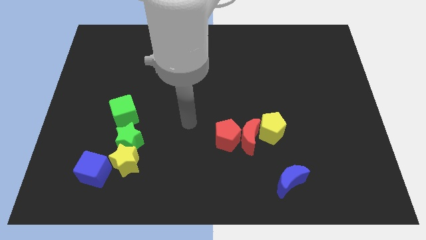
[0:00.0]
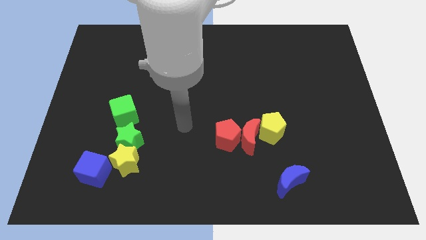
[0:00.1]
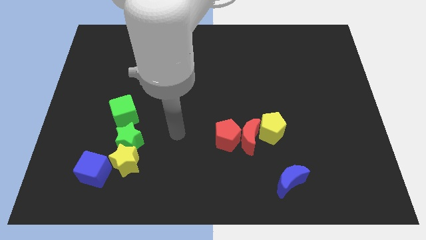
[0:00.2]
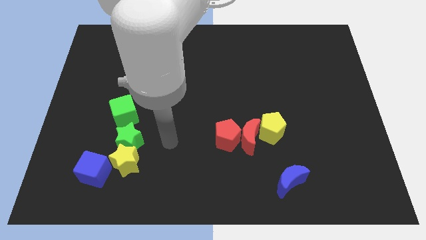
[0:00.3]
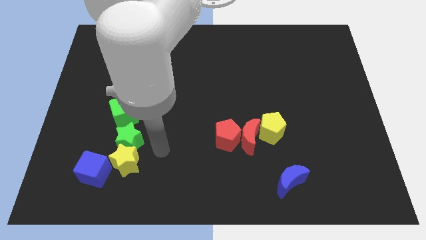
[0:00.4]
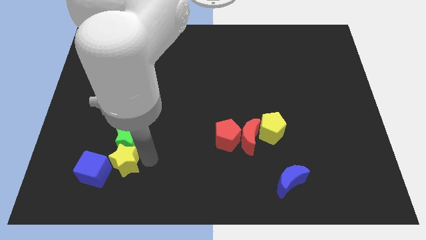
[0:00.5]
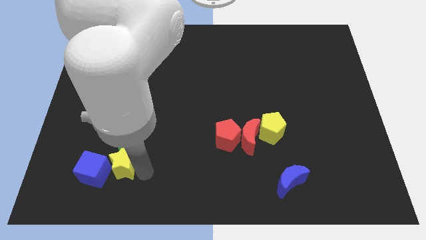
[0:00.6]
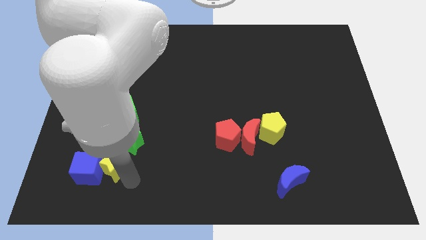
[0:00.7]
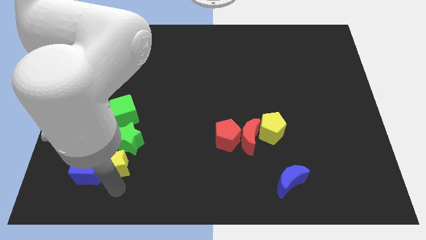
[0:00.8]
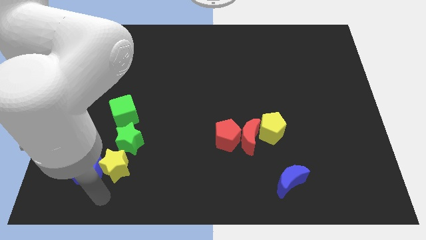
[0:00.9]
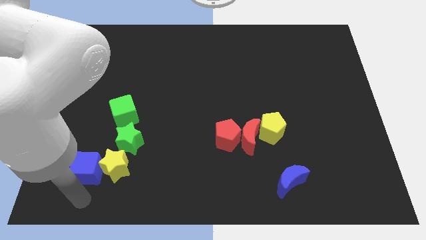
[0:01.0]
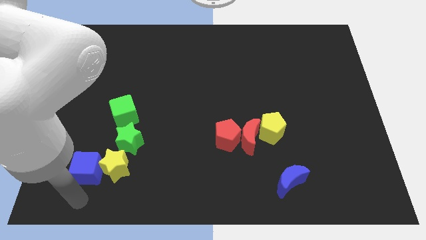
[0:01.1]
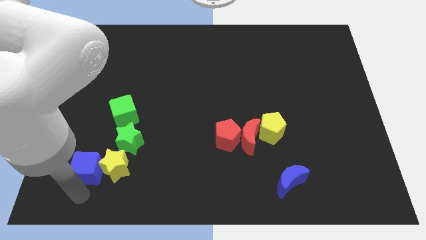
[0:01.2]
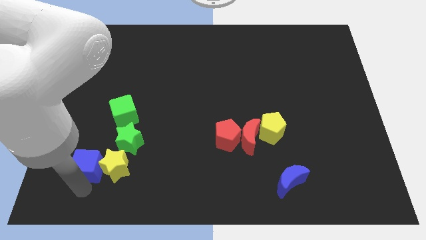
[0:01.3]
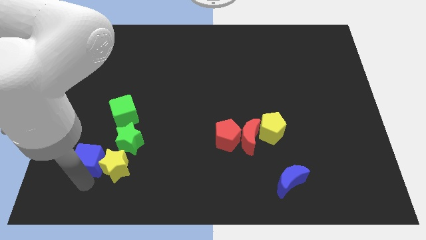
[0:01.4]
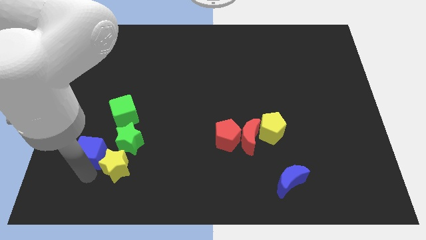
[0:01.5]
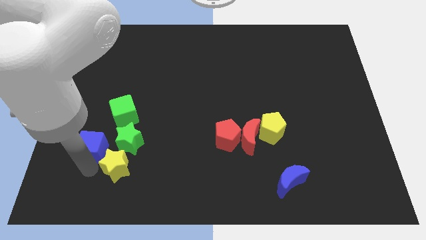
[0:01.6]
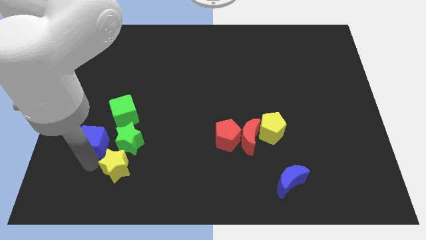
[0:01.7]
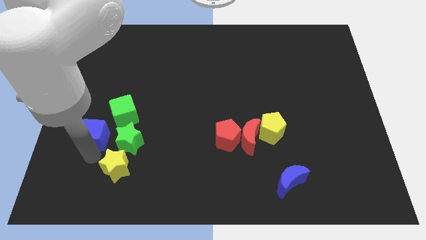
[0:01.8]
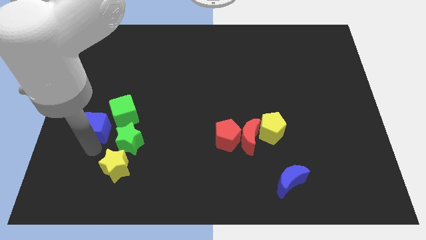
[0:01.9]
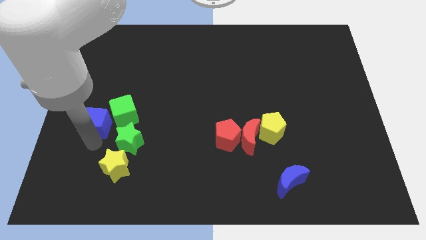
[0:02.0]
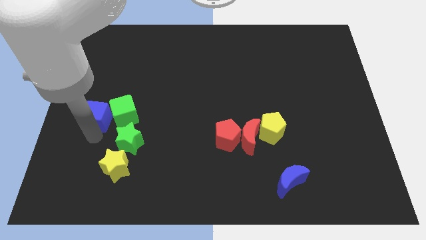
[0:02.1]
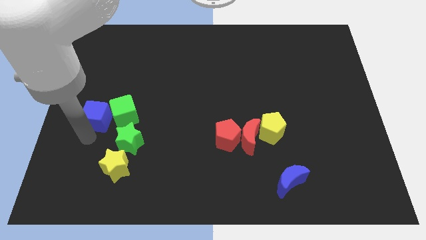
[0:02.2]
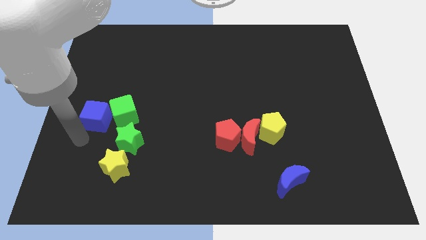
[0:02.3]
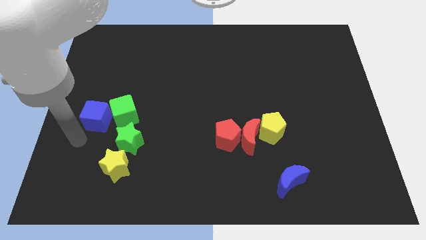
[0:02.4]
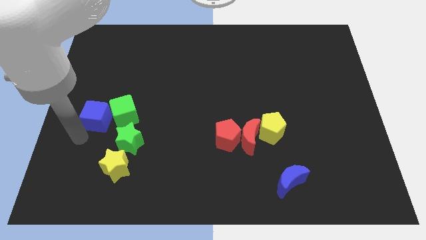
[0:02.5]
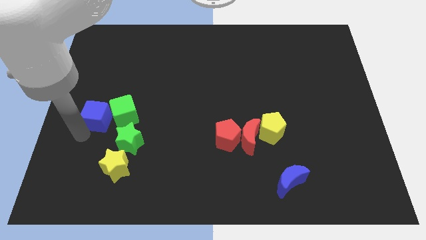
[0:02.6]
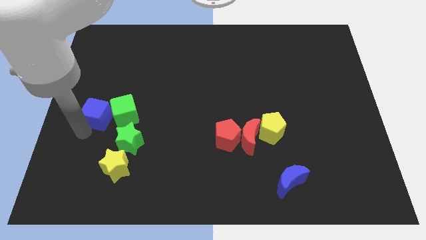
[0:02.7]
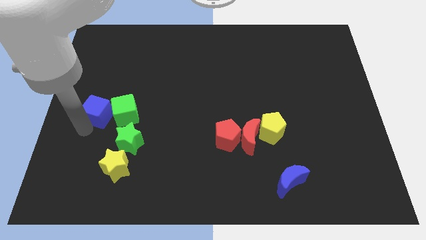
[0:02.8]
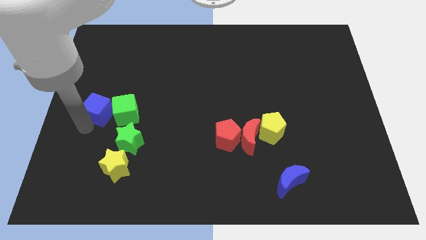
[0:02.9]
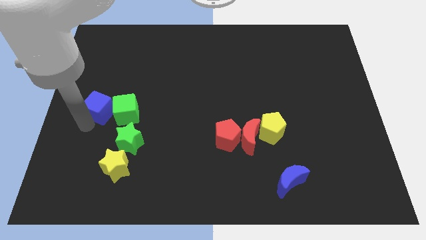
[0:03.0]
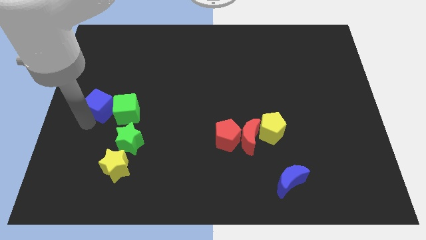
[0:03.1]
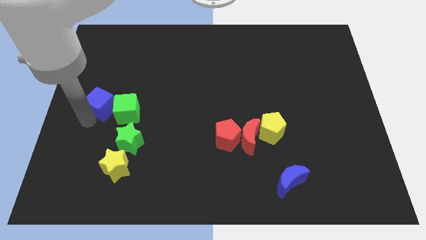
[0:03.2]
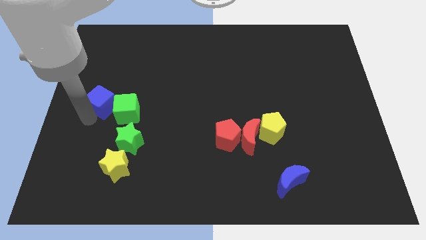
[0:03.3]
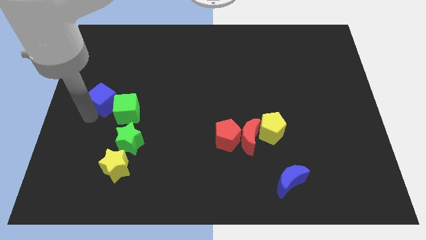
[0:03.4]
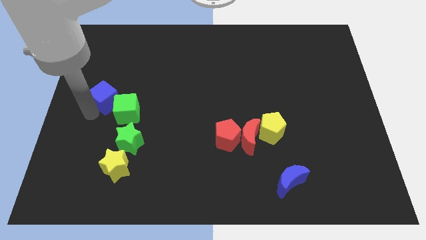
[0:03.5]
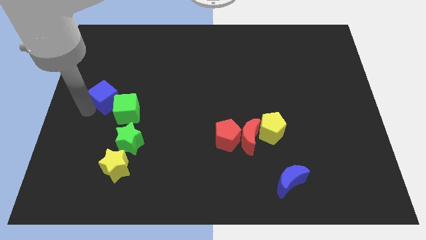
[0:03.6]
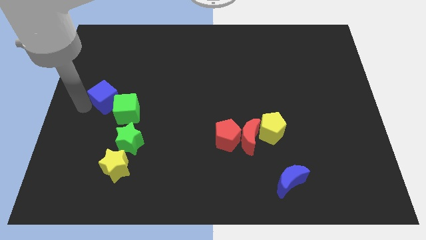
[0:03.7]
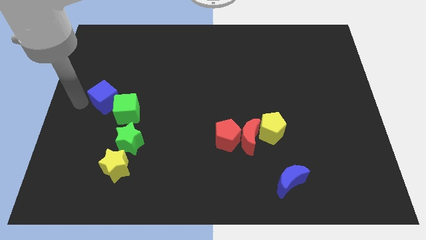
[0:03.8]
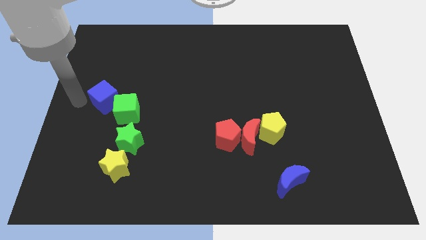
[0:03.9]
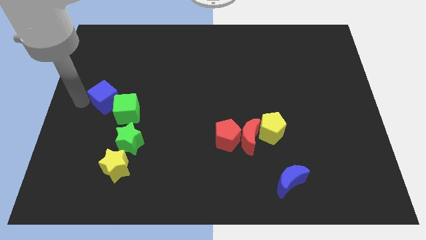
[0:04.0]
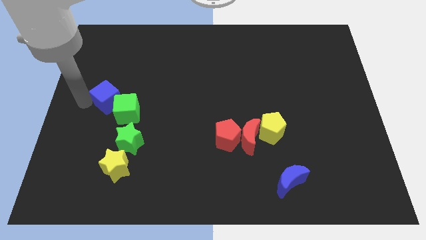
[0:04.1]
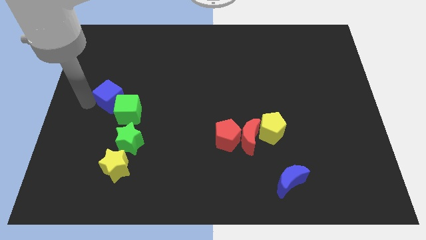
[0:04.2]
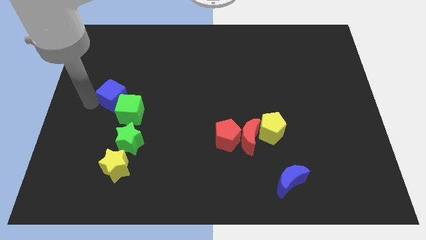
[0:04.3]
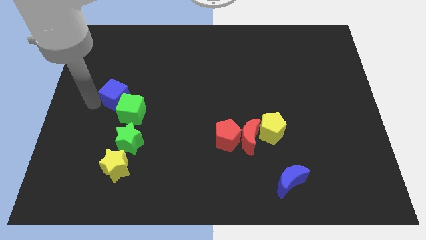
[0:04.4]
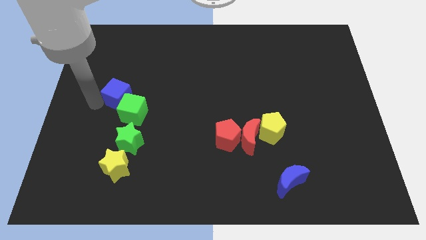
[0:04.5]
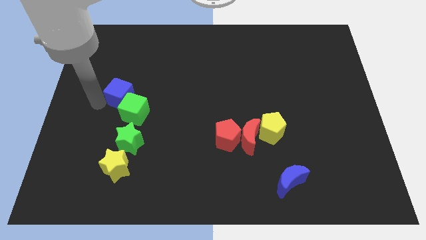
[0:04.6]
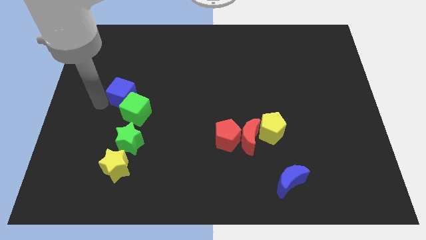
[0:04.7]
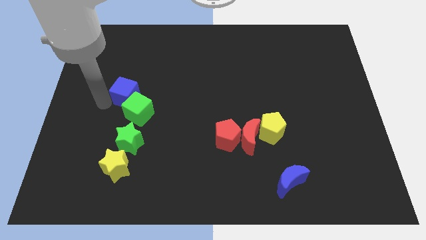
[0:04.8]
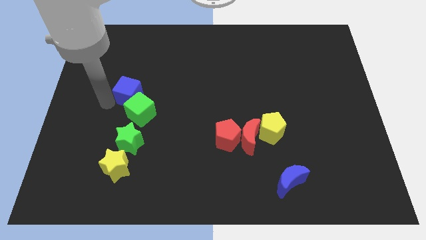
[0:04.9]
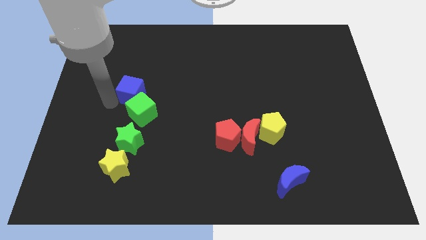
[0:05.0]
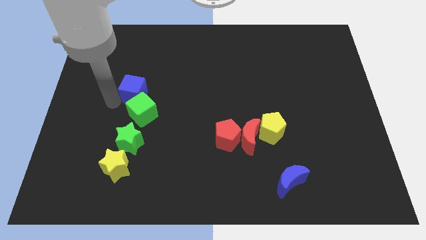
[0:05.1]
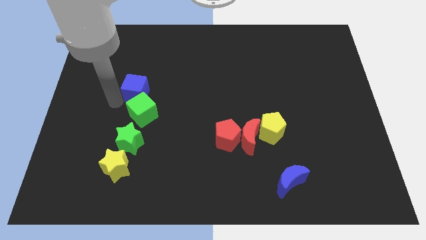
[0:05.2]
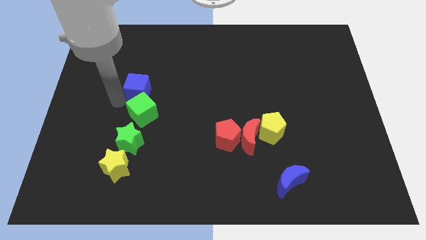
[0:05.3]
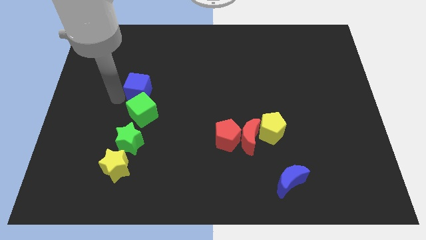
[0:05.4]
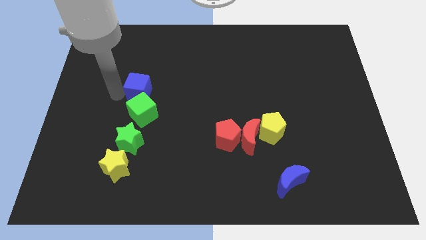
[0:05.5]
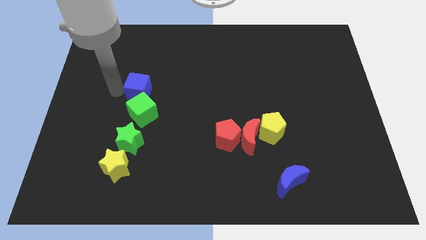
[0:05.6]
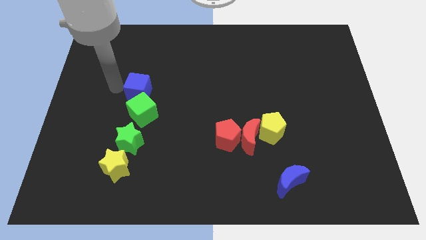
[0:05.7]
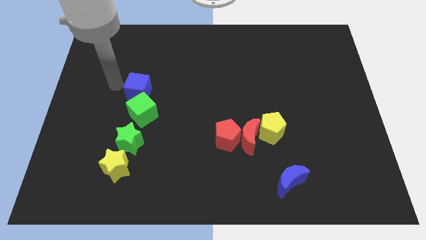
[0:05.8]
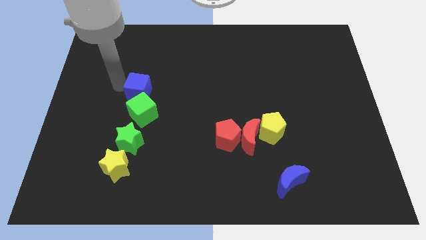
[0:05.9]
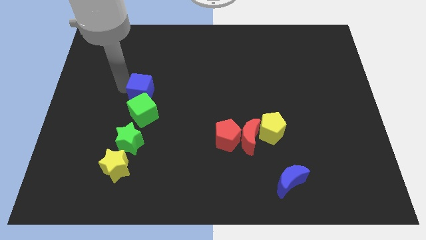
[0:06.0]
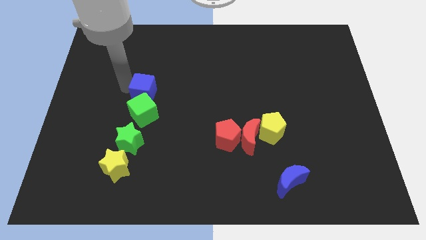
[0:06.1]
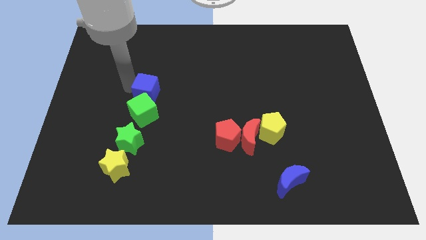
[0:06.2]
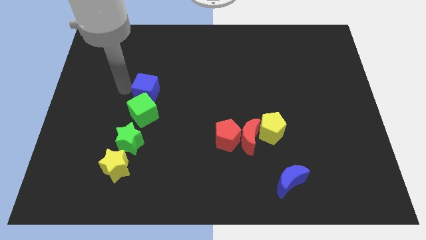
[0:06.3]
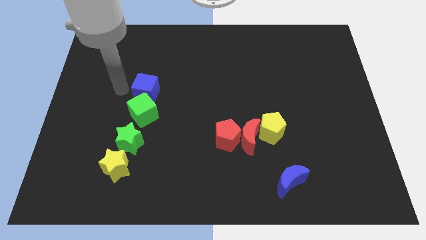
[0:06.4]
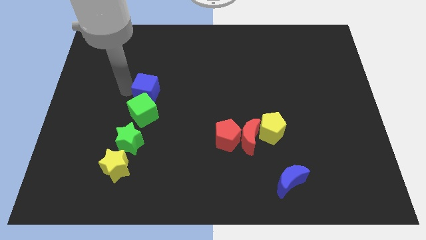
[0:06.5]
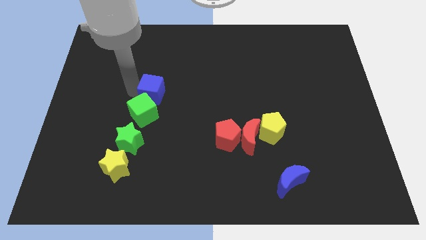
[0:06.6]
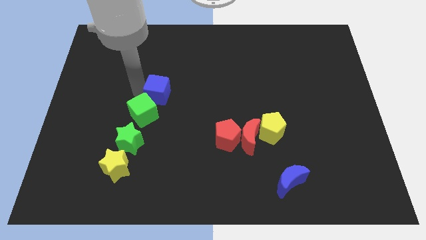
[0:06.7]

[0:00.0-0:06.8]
push the blue cube upwards and then to the right

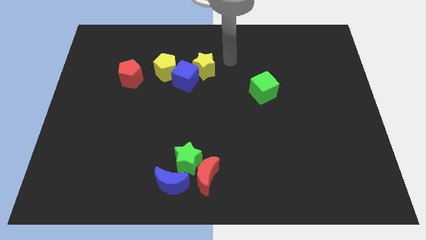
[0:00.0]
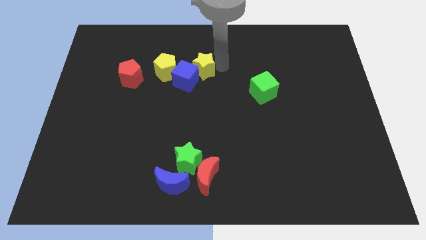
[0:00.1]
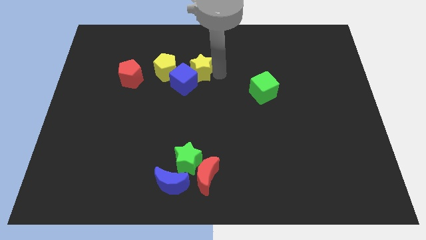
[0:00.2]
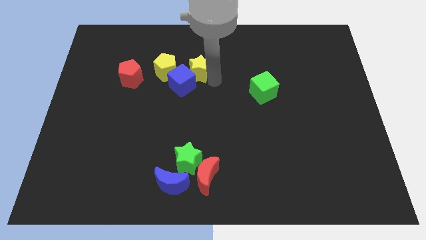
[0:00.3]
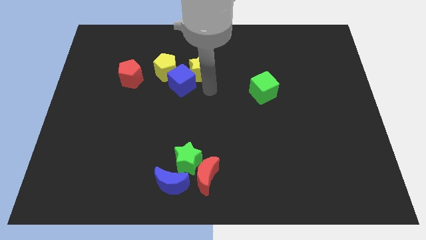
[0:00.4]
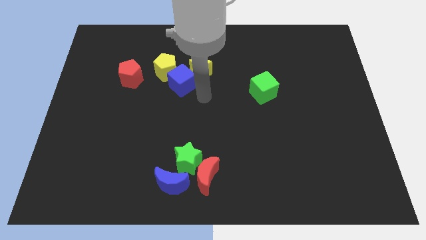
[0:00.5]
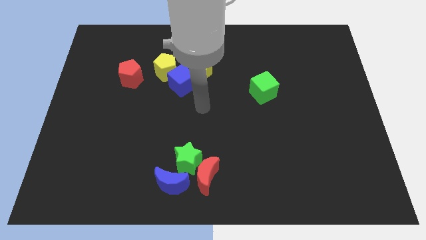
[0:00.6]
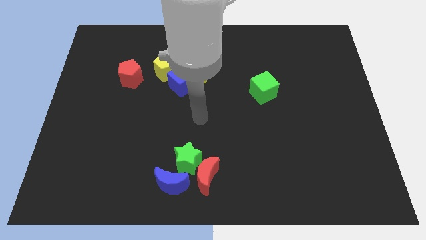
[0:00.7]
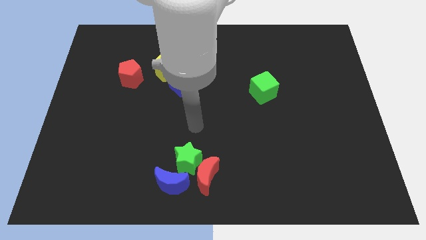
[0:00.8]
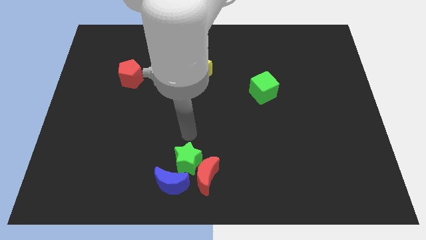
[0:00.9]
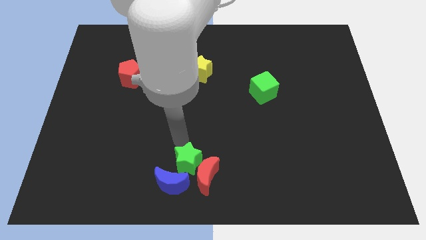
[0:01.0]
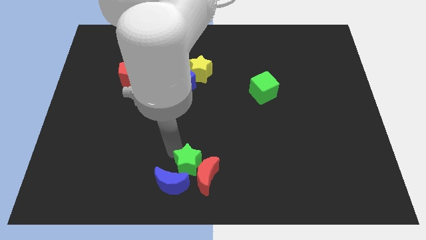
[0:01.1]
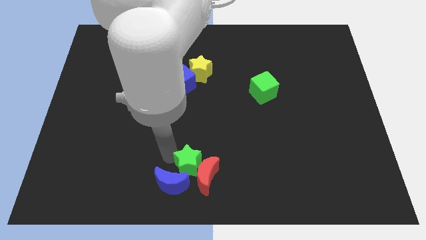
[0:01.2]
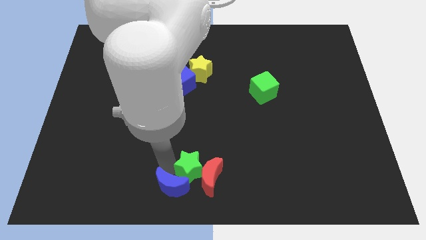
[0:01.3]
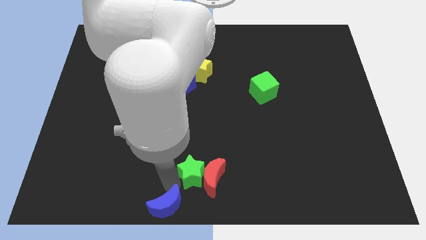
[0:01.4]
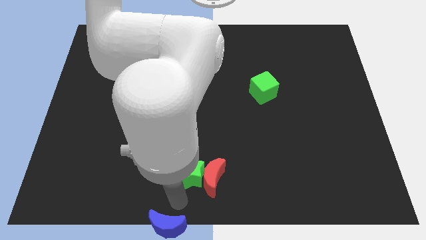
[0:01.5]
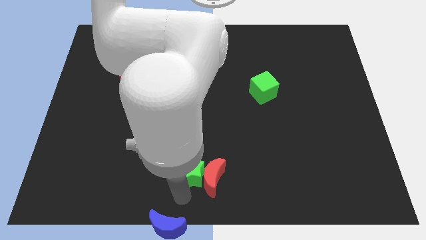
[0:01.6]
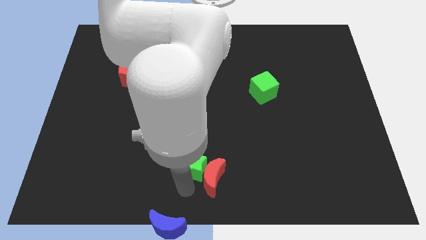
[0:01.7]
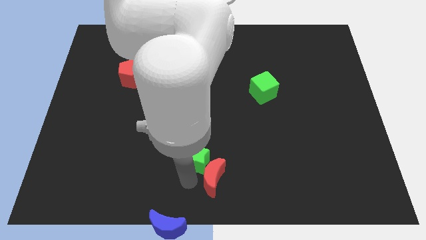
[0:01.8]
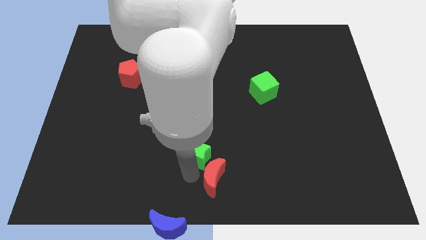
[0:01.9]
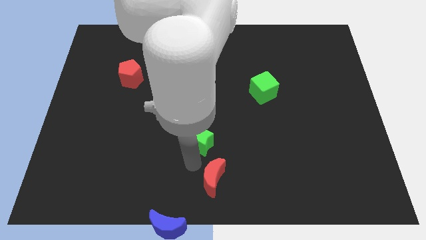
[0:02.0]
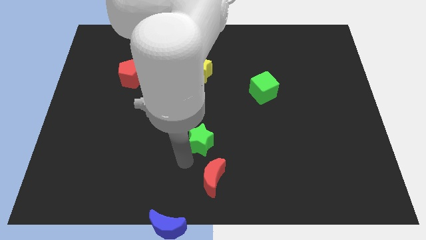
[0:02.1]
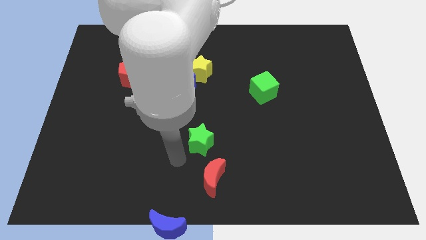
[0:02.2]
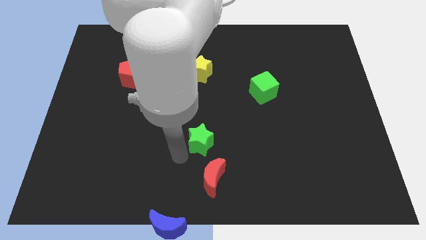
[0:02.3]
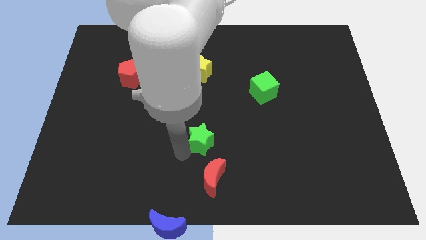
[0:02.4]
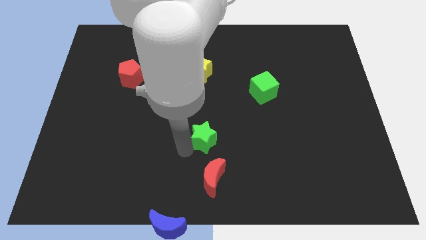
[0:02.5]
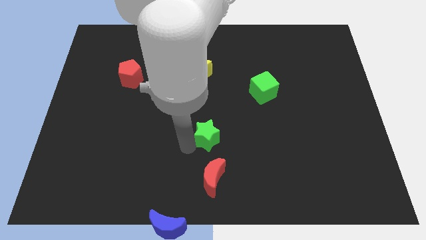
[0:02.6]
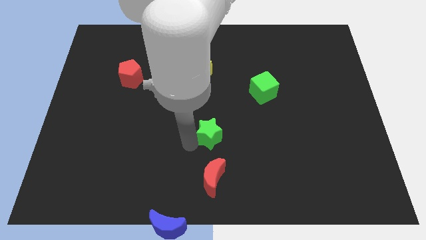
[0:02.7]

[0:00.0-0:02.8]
move the green star up and to the right a little
